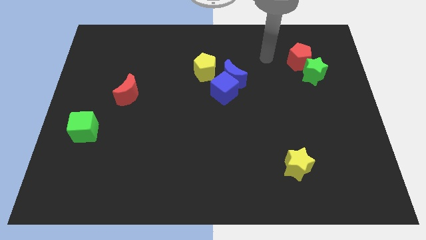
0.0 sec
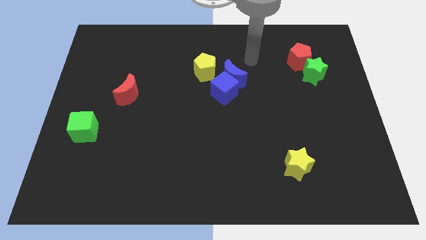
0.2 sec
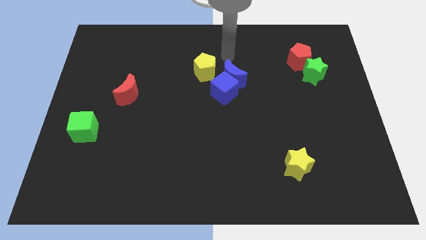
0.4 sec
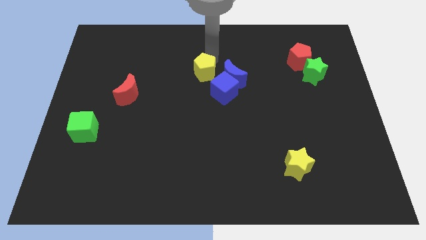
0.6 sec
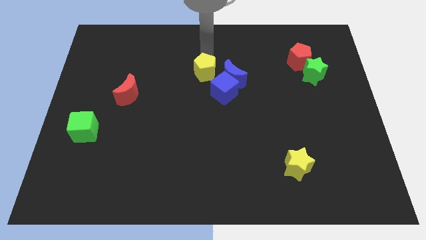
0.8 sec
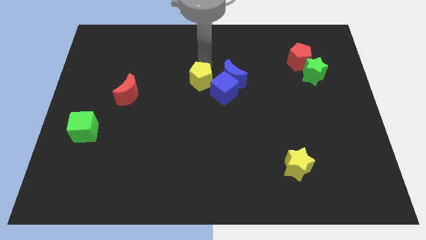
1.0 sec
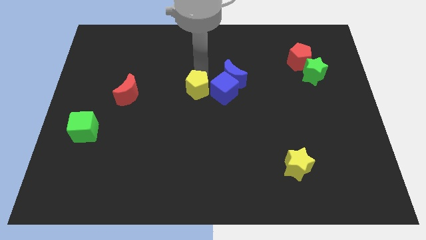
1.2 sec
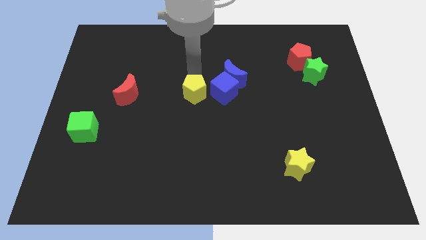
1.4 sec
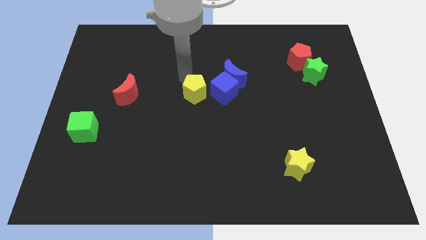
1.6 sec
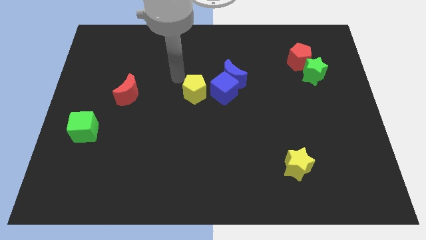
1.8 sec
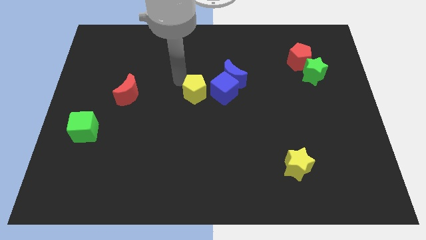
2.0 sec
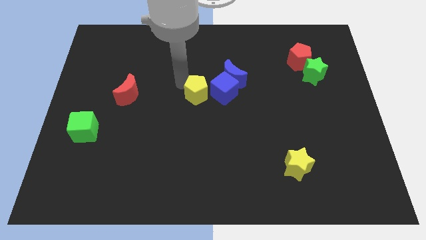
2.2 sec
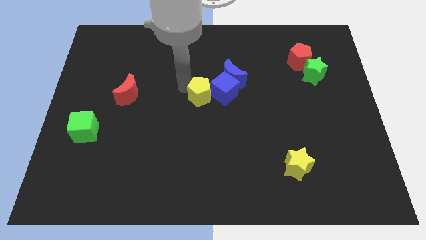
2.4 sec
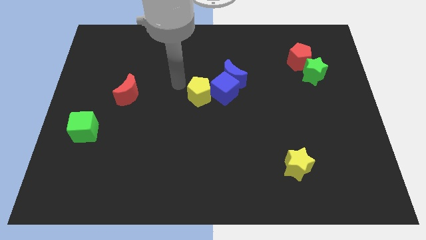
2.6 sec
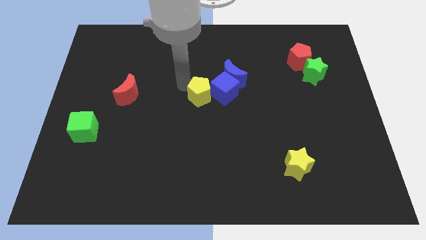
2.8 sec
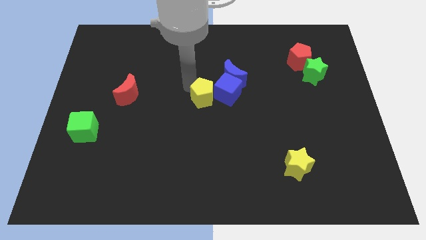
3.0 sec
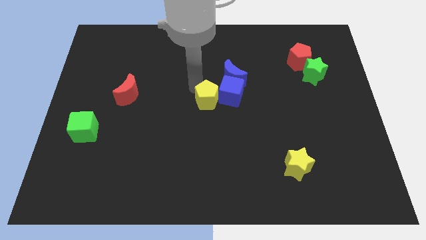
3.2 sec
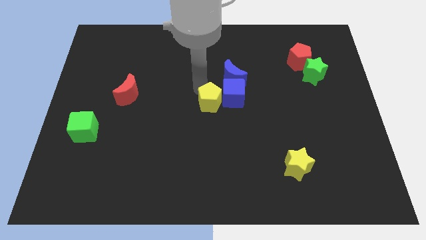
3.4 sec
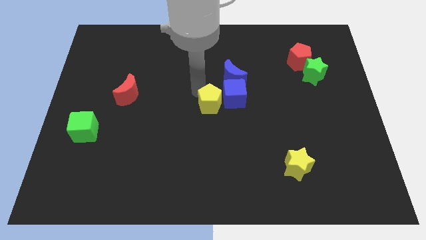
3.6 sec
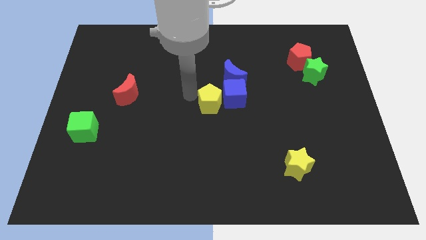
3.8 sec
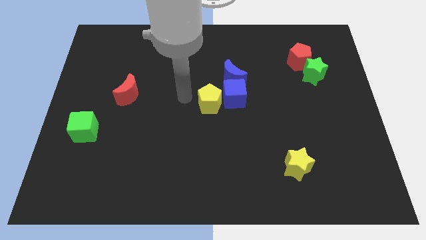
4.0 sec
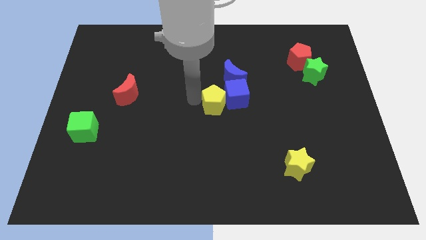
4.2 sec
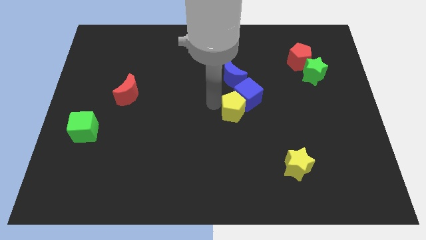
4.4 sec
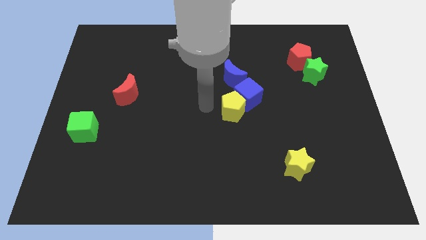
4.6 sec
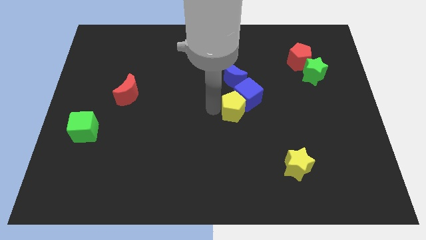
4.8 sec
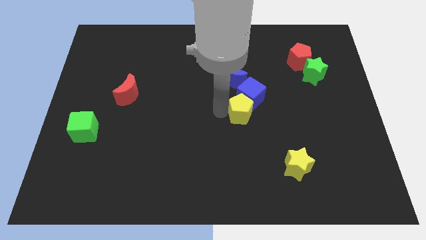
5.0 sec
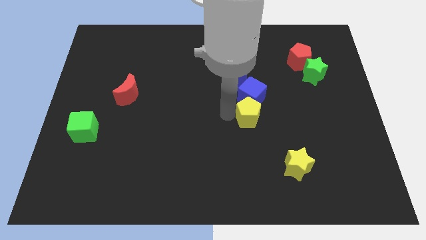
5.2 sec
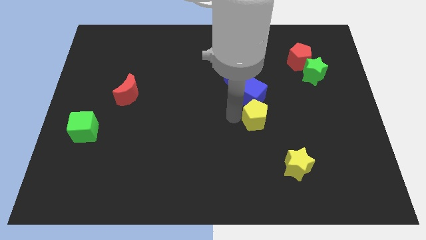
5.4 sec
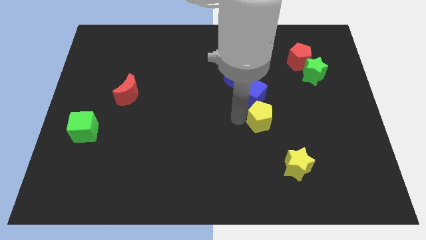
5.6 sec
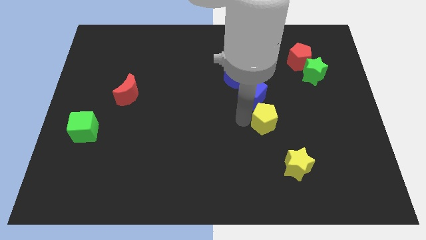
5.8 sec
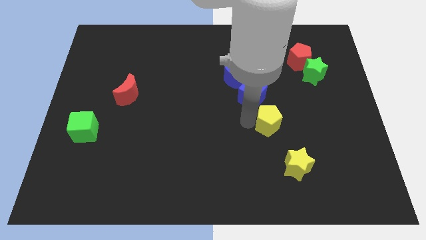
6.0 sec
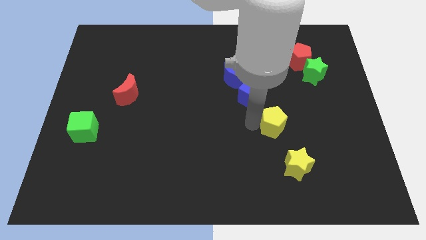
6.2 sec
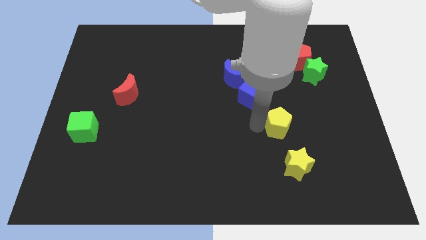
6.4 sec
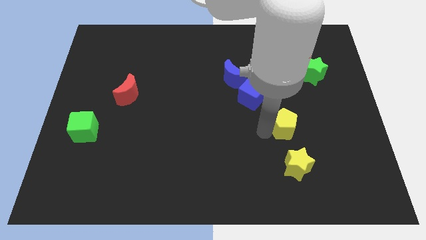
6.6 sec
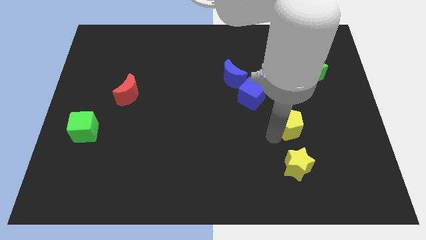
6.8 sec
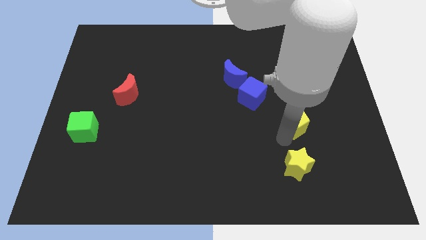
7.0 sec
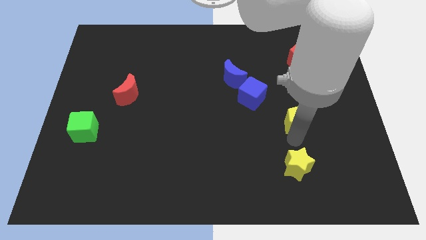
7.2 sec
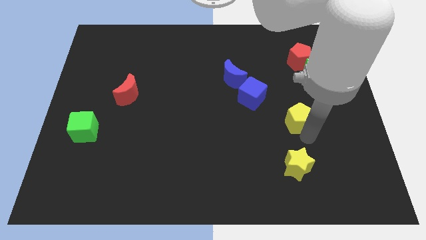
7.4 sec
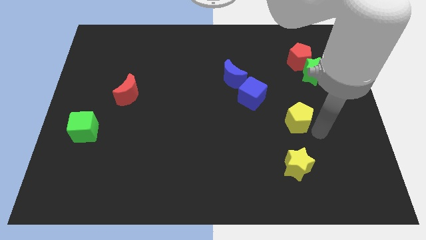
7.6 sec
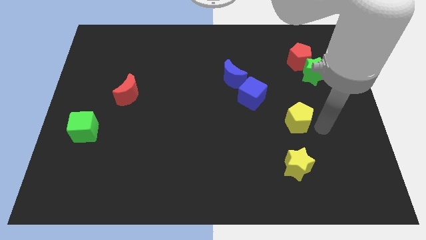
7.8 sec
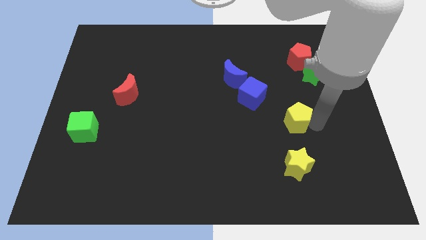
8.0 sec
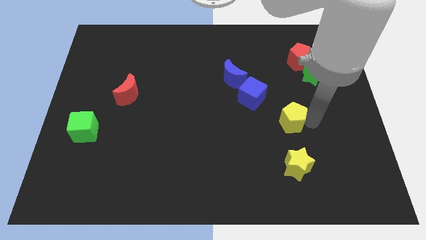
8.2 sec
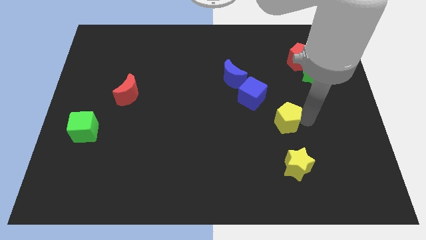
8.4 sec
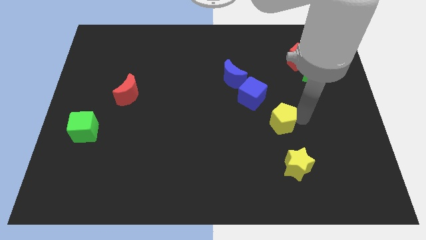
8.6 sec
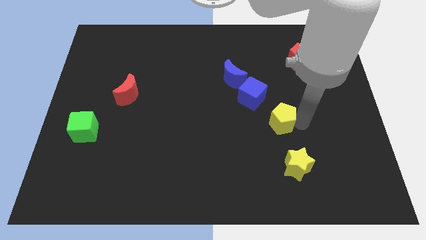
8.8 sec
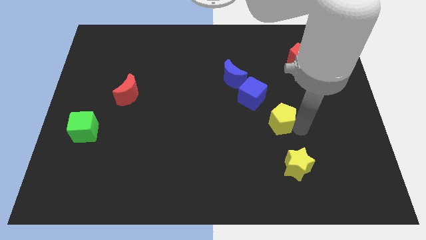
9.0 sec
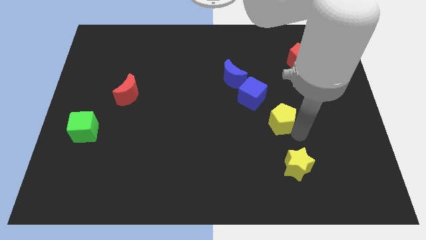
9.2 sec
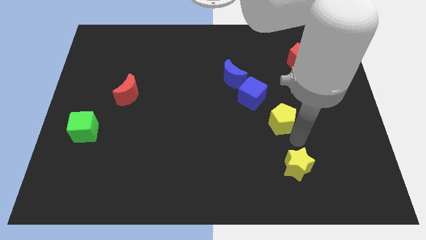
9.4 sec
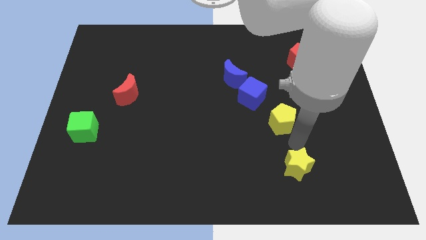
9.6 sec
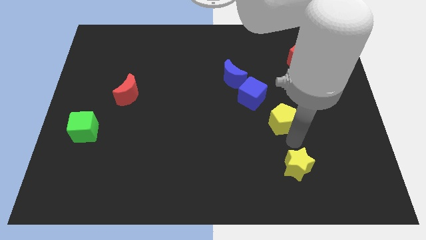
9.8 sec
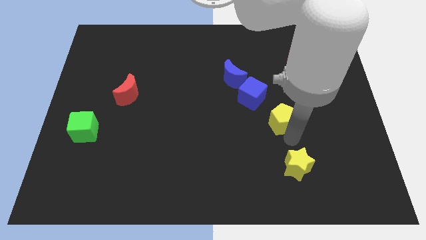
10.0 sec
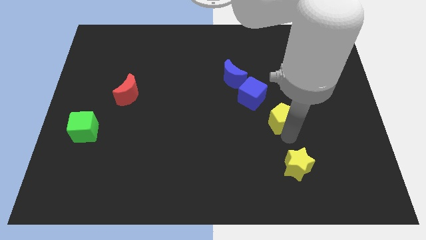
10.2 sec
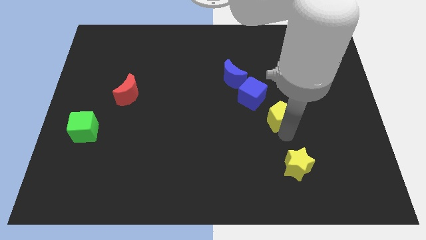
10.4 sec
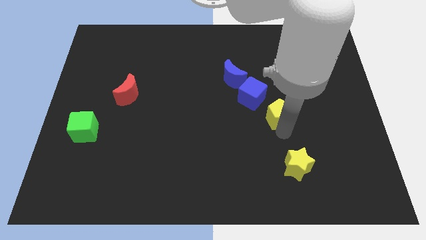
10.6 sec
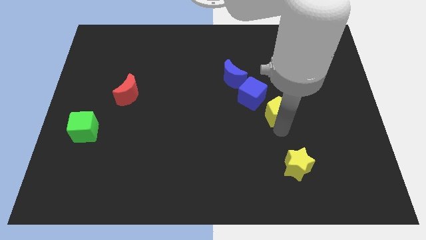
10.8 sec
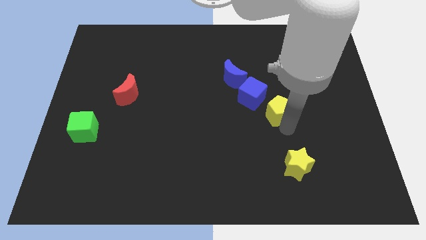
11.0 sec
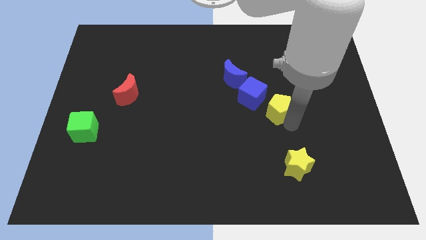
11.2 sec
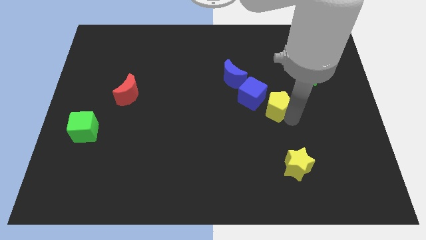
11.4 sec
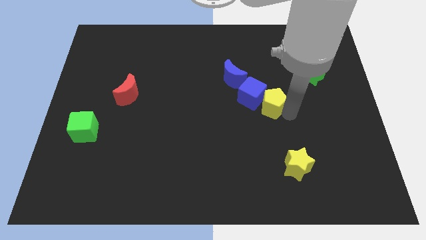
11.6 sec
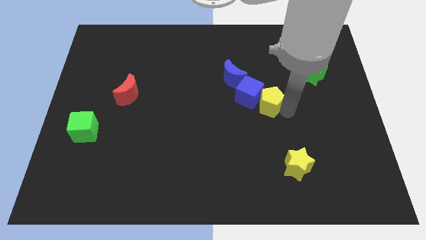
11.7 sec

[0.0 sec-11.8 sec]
move the yellow pentagon to the bottom right of the blue cube

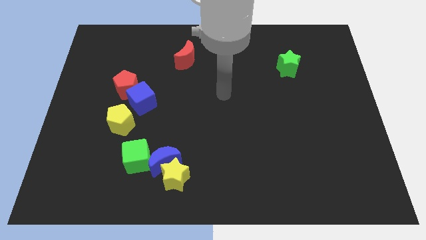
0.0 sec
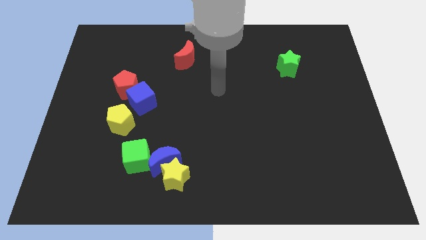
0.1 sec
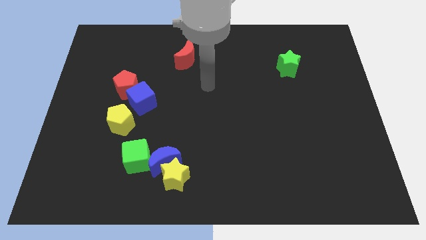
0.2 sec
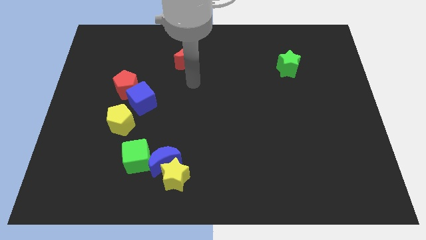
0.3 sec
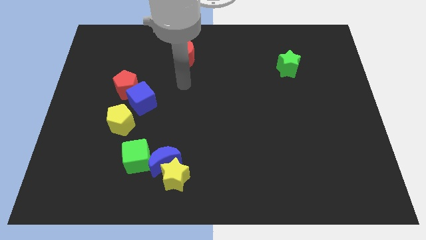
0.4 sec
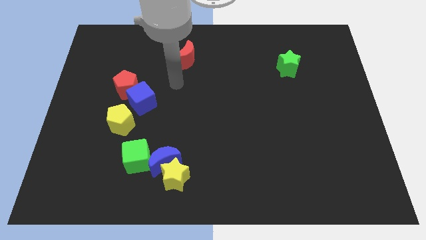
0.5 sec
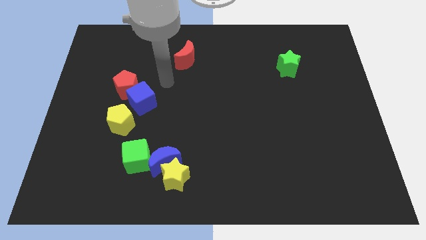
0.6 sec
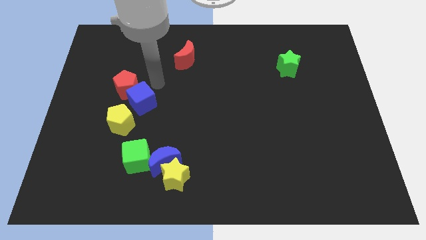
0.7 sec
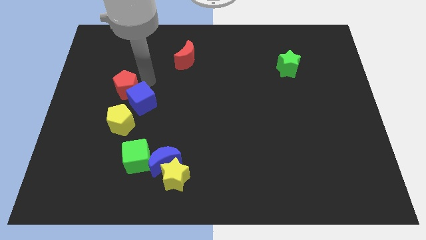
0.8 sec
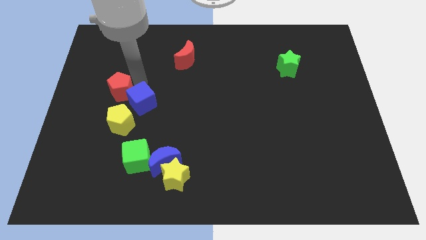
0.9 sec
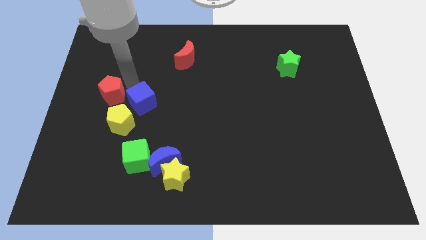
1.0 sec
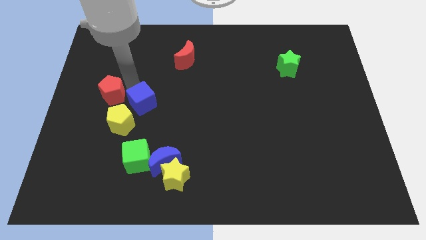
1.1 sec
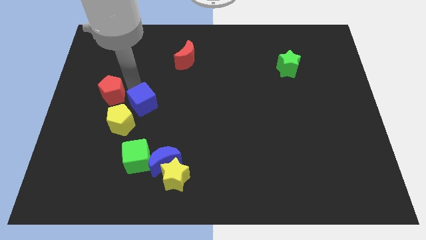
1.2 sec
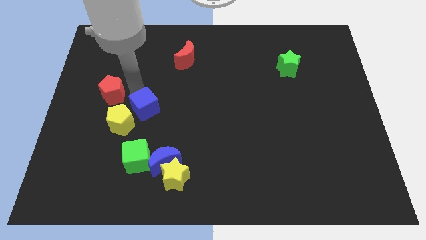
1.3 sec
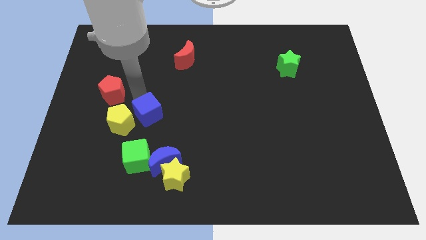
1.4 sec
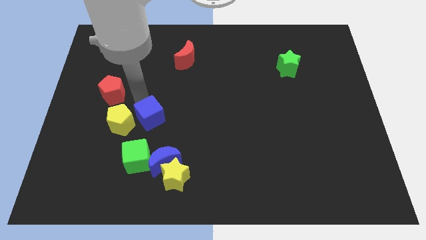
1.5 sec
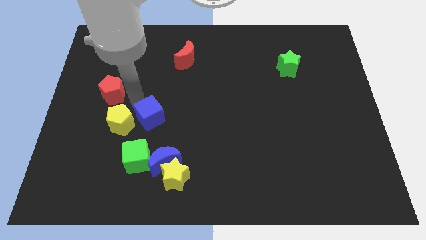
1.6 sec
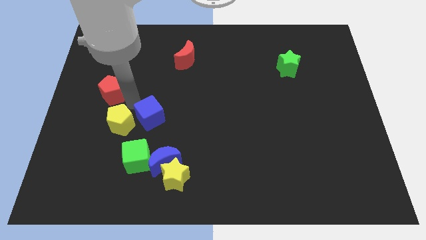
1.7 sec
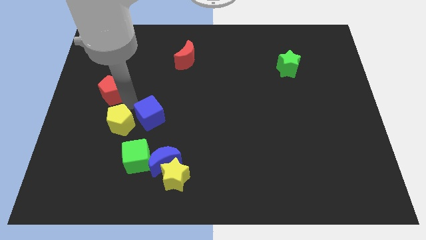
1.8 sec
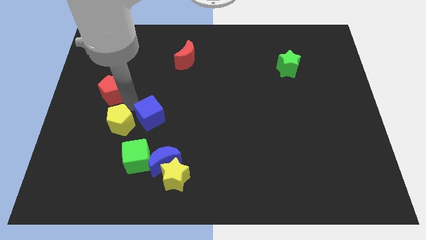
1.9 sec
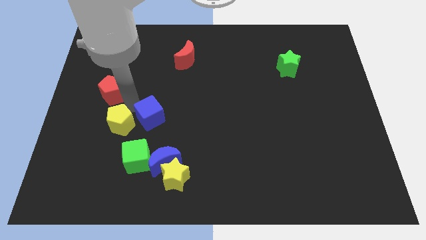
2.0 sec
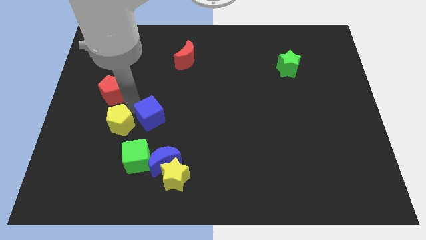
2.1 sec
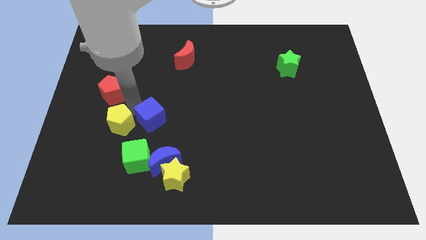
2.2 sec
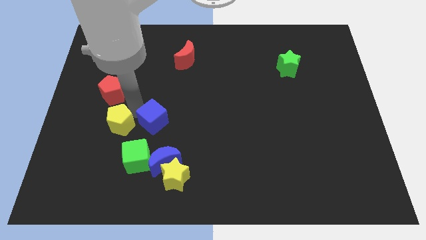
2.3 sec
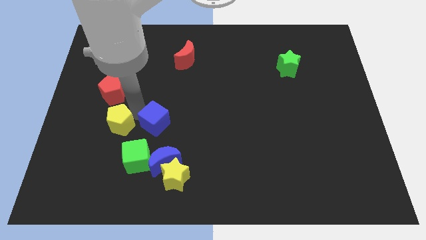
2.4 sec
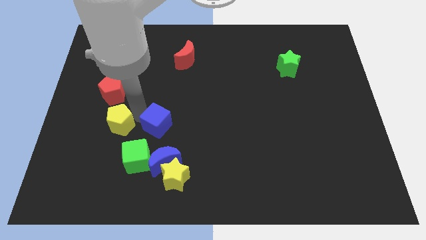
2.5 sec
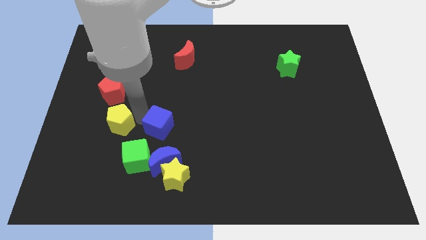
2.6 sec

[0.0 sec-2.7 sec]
move the blue cube to the top of the yellow star
